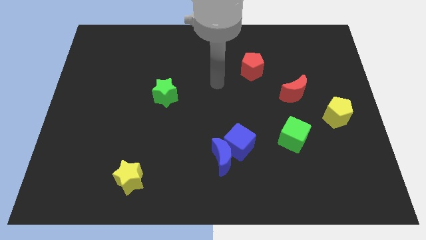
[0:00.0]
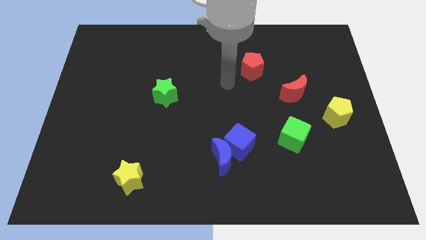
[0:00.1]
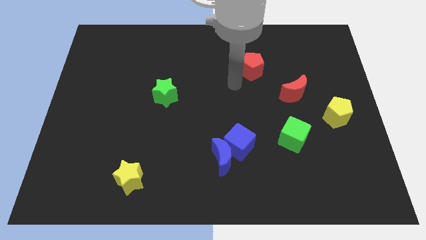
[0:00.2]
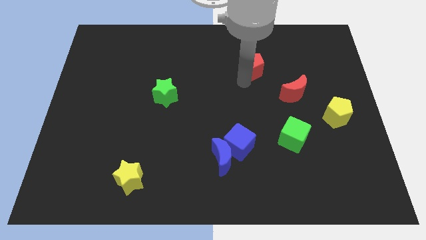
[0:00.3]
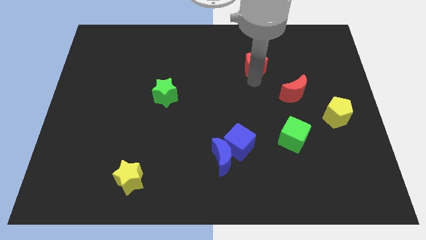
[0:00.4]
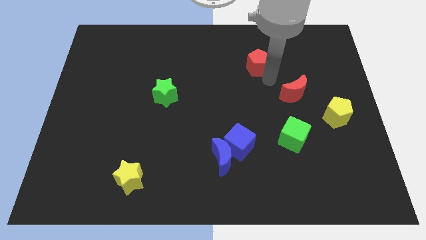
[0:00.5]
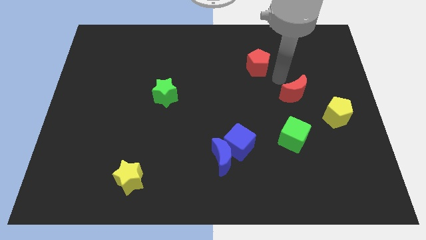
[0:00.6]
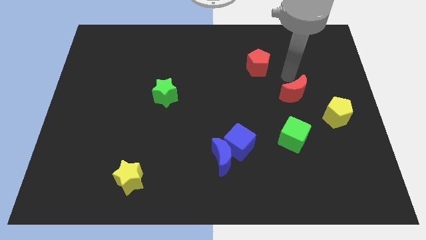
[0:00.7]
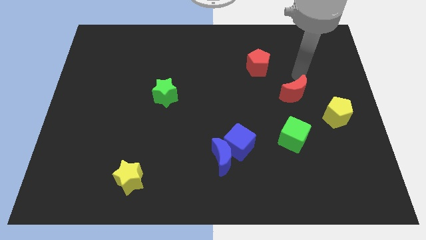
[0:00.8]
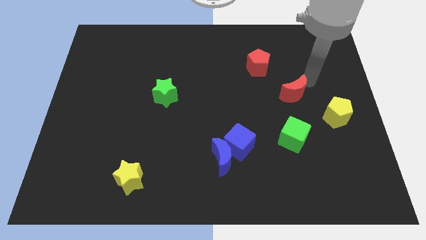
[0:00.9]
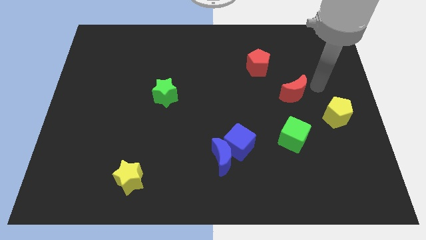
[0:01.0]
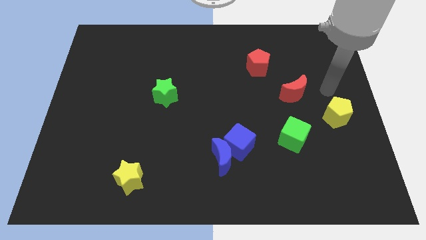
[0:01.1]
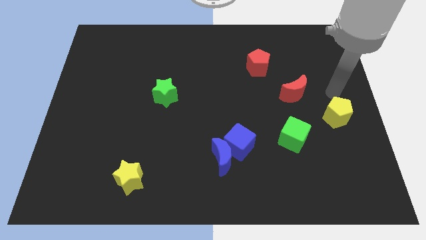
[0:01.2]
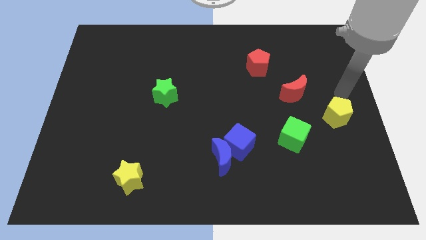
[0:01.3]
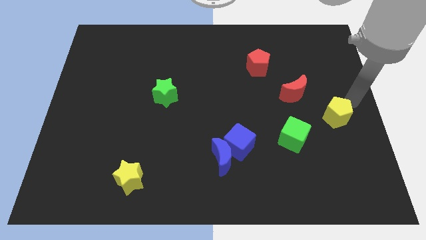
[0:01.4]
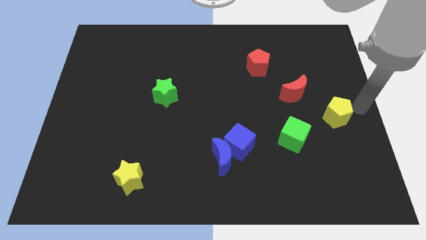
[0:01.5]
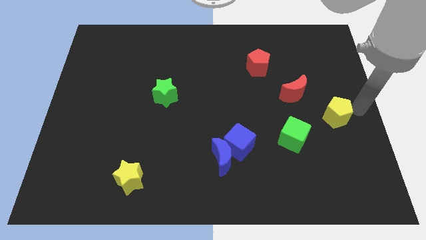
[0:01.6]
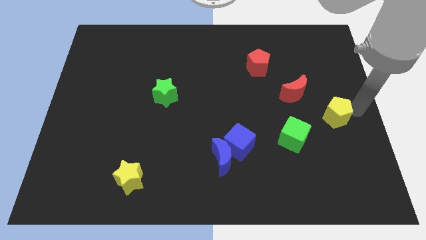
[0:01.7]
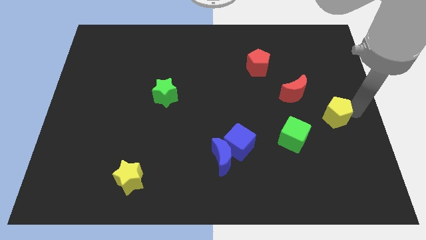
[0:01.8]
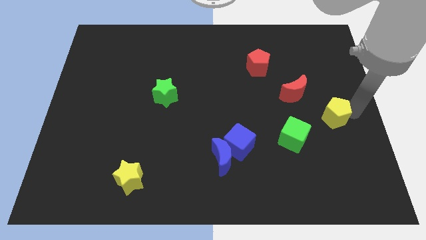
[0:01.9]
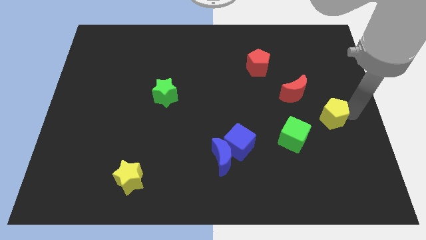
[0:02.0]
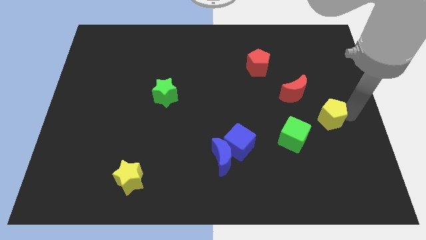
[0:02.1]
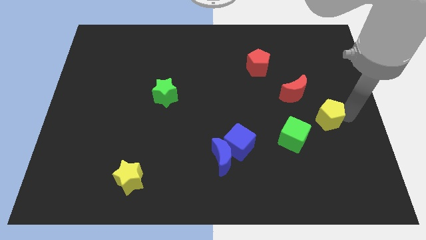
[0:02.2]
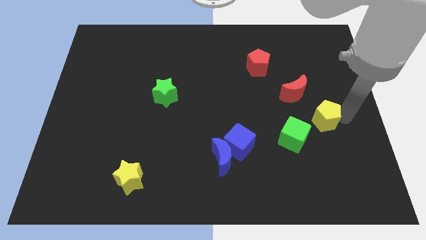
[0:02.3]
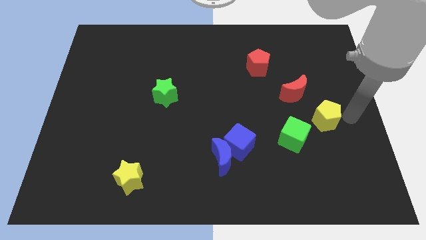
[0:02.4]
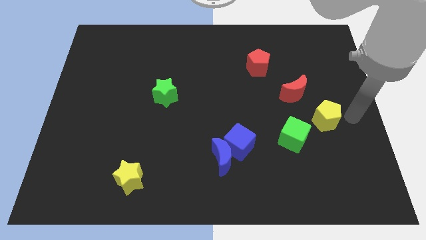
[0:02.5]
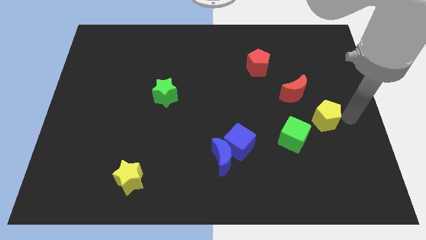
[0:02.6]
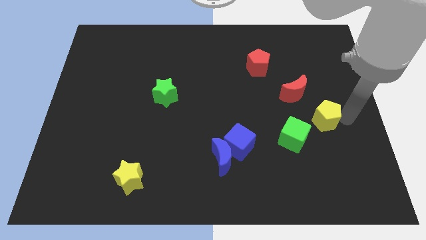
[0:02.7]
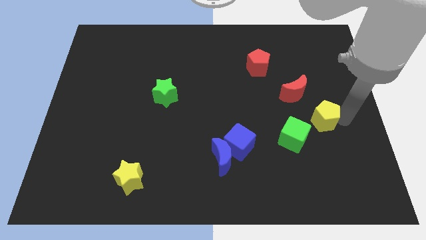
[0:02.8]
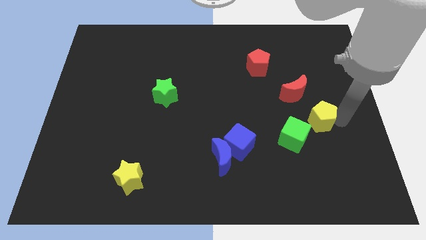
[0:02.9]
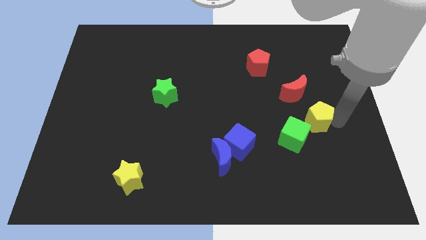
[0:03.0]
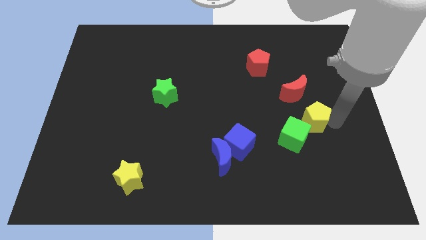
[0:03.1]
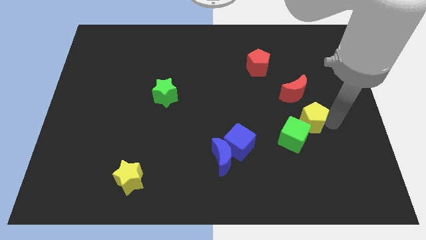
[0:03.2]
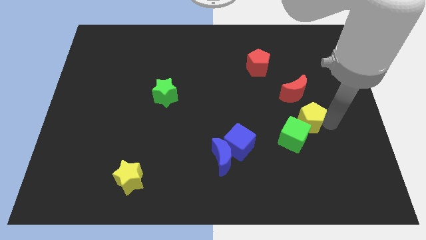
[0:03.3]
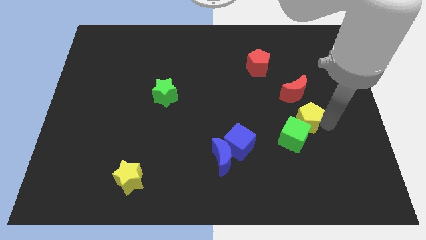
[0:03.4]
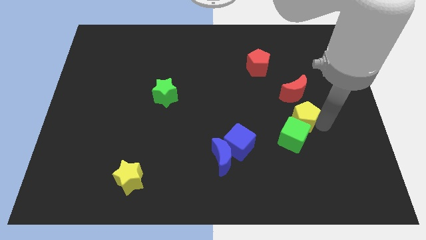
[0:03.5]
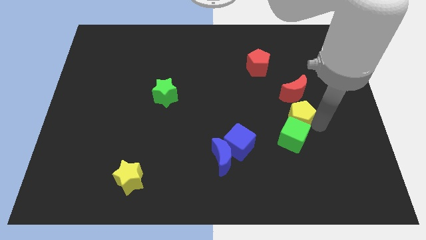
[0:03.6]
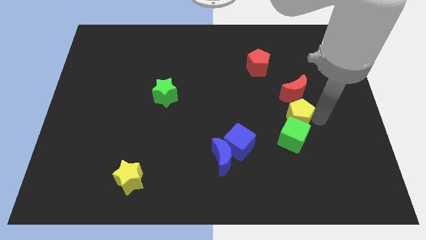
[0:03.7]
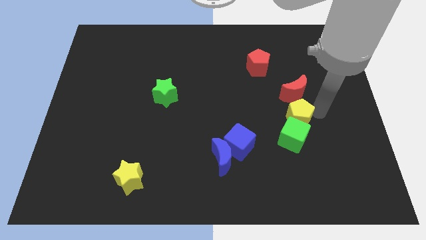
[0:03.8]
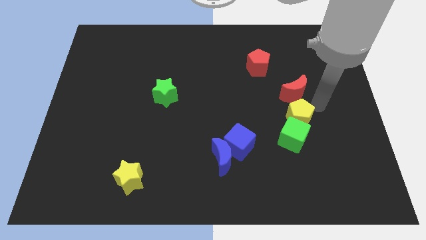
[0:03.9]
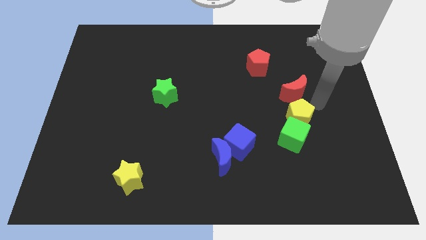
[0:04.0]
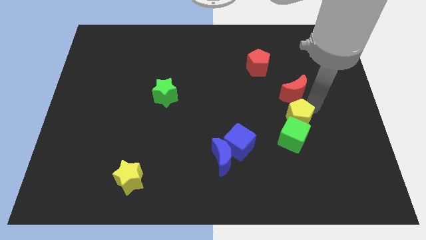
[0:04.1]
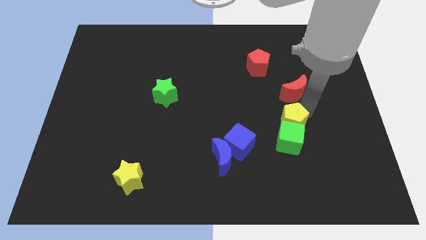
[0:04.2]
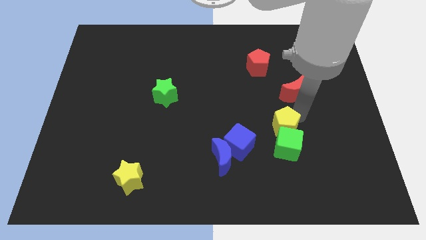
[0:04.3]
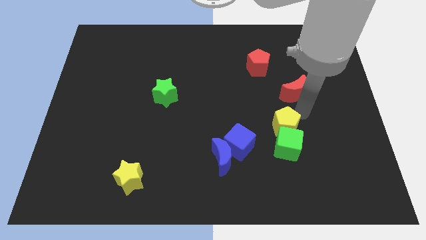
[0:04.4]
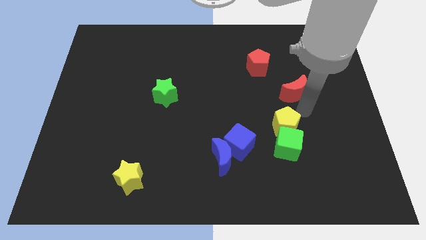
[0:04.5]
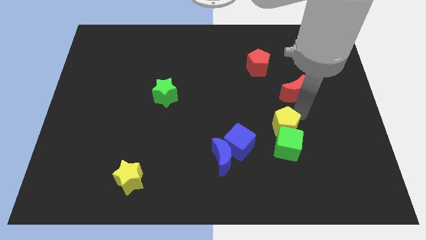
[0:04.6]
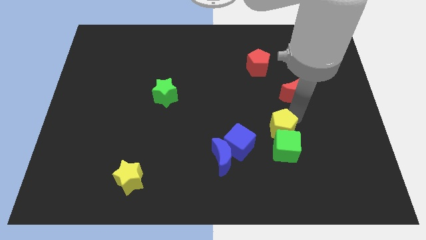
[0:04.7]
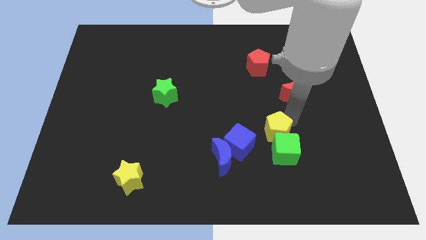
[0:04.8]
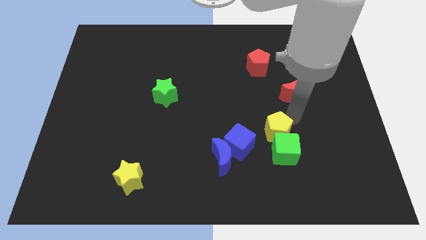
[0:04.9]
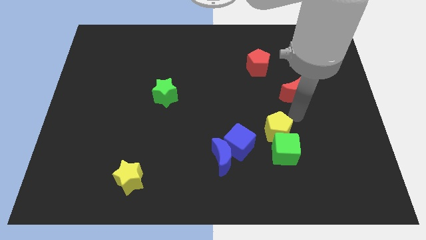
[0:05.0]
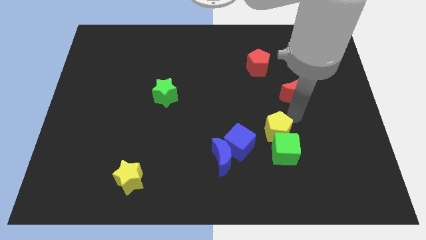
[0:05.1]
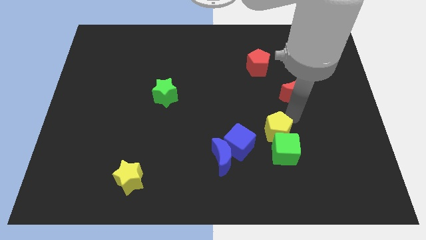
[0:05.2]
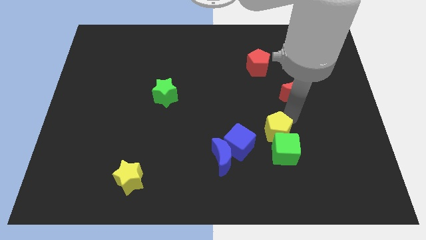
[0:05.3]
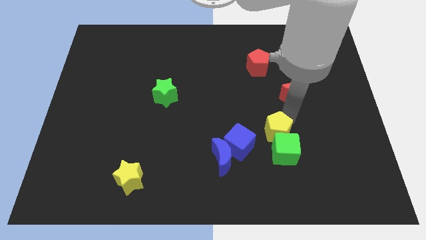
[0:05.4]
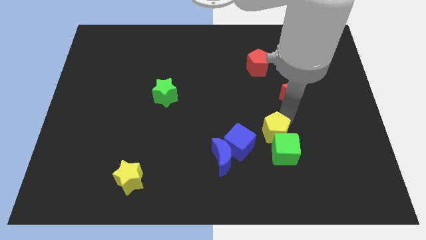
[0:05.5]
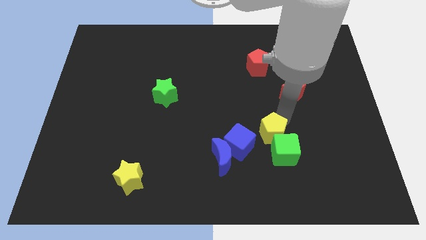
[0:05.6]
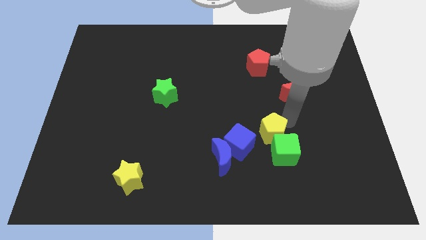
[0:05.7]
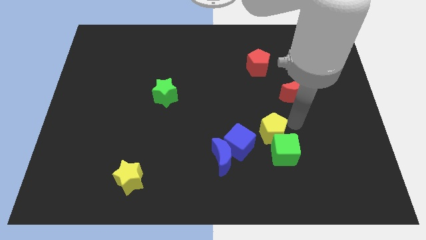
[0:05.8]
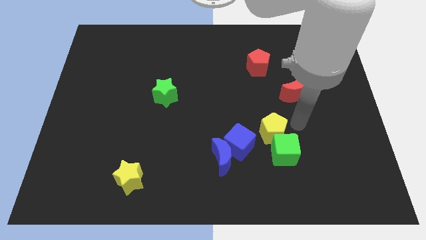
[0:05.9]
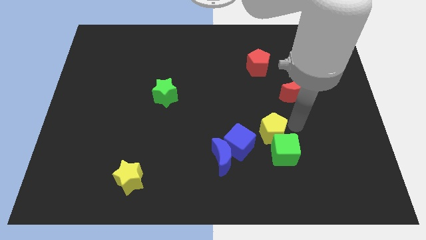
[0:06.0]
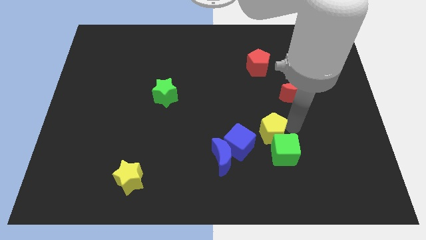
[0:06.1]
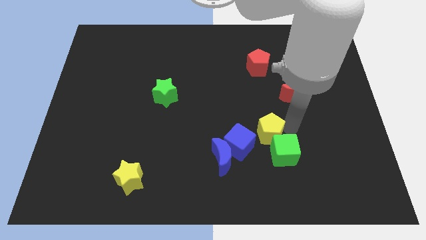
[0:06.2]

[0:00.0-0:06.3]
move the yellow pentagon to the top right side of the blue moon

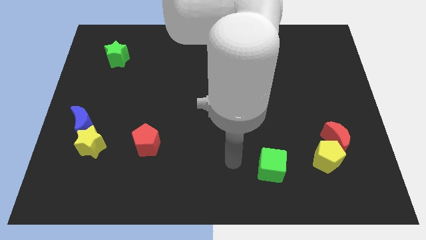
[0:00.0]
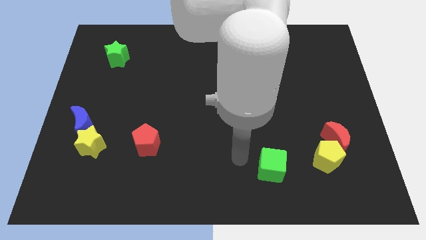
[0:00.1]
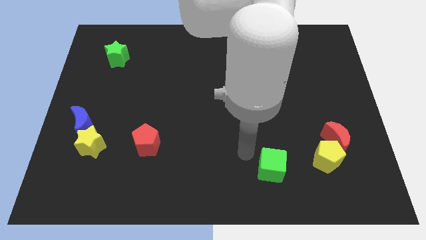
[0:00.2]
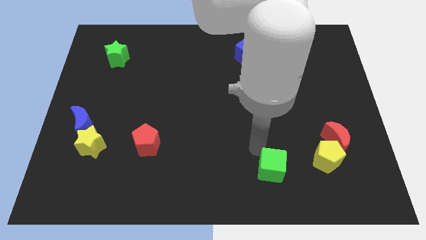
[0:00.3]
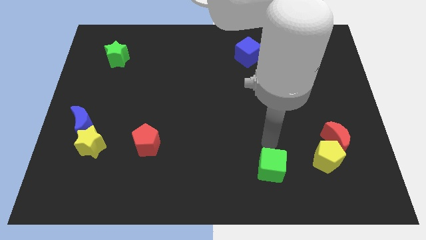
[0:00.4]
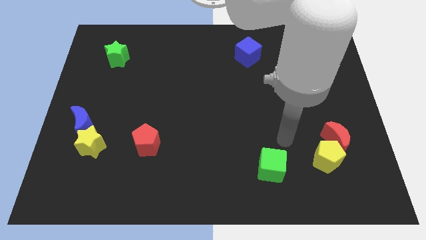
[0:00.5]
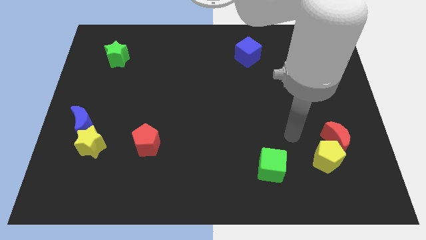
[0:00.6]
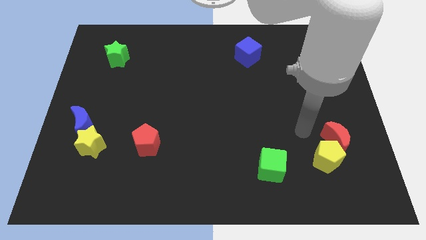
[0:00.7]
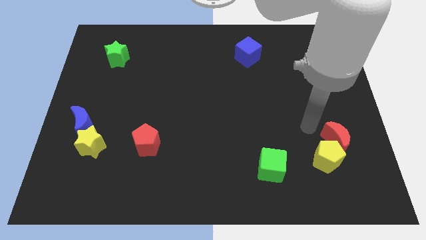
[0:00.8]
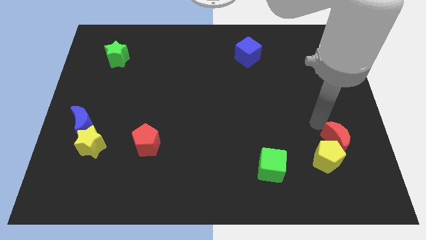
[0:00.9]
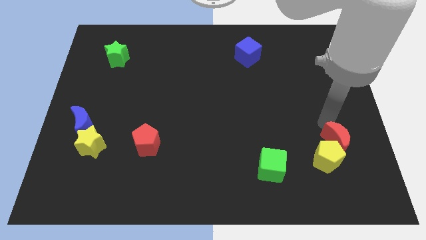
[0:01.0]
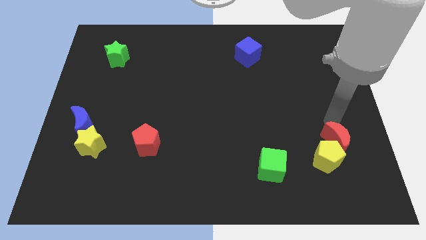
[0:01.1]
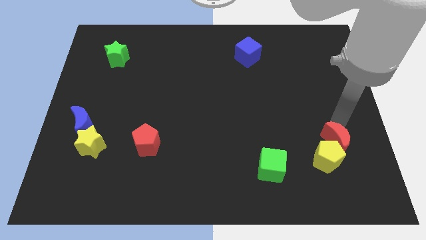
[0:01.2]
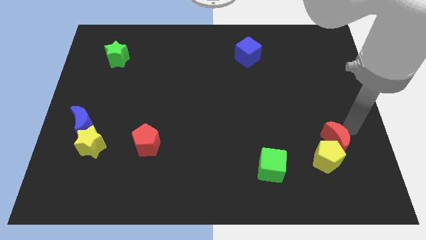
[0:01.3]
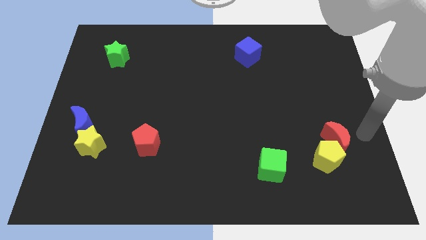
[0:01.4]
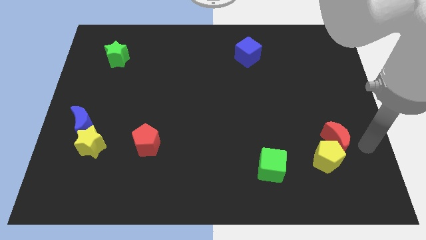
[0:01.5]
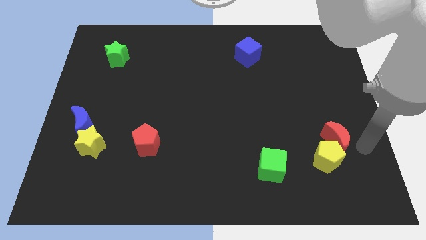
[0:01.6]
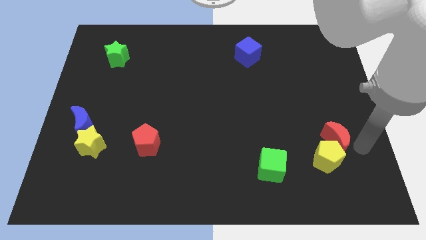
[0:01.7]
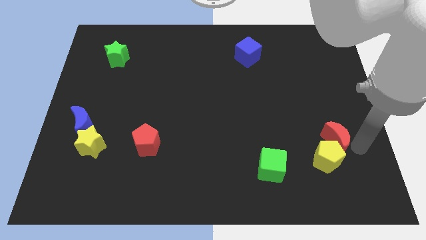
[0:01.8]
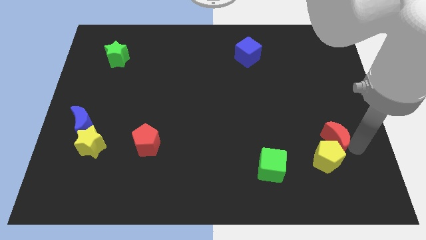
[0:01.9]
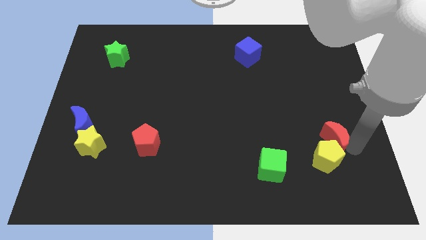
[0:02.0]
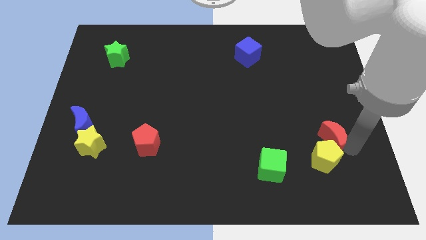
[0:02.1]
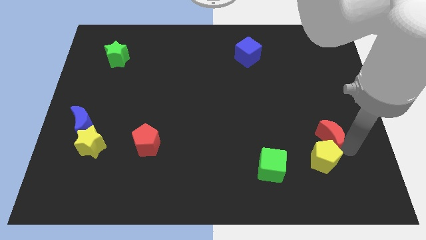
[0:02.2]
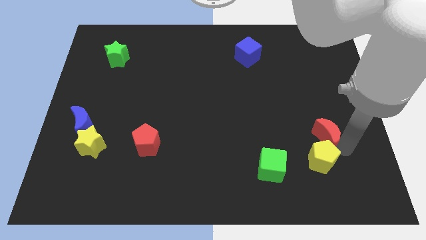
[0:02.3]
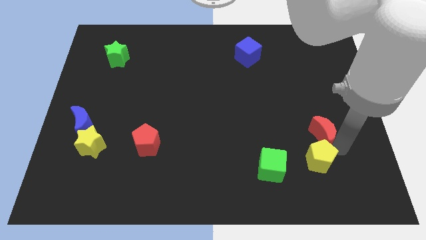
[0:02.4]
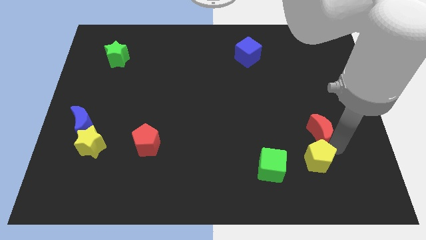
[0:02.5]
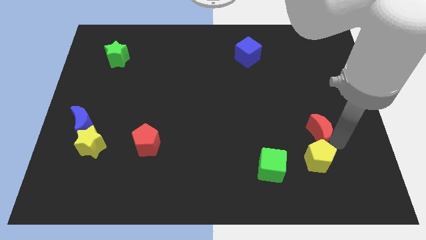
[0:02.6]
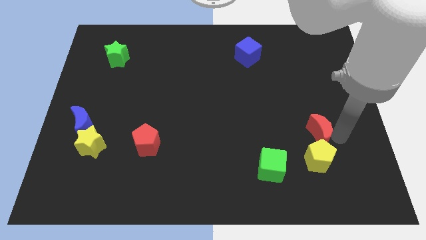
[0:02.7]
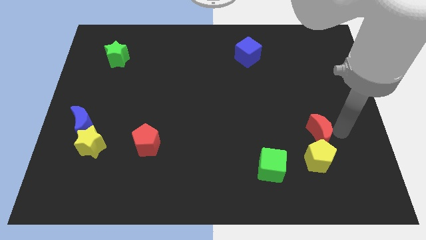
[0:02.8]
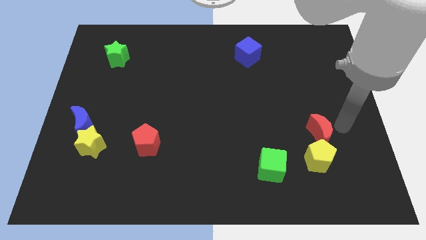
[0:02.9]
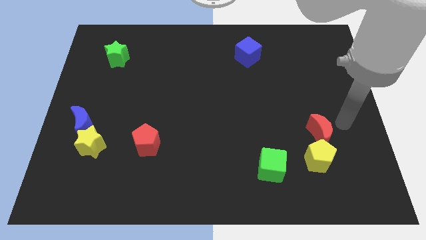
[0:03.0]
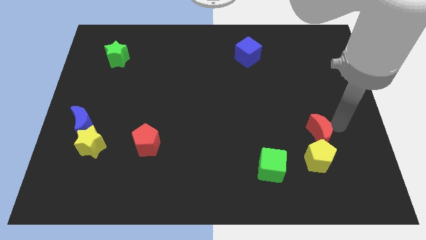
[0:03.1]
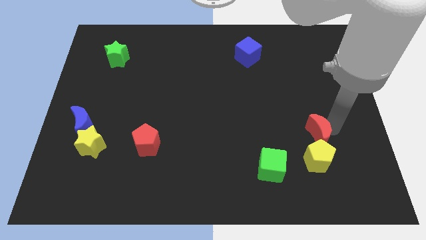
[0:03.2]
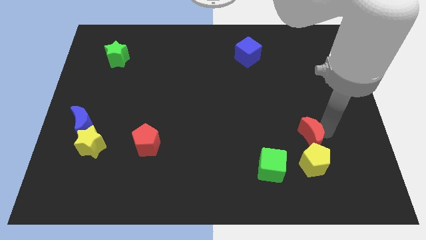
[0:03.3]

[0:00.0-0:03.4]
move the red moon diagonally up and to the right of the green cube
